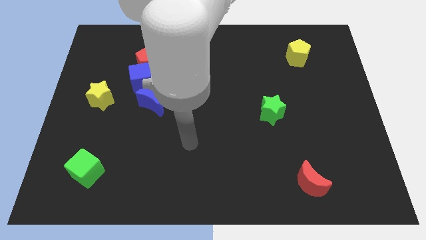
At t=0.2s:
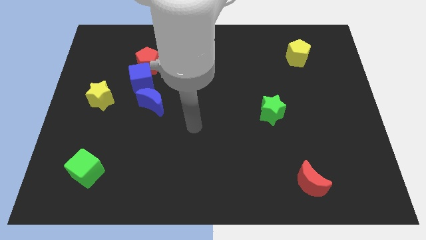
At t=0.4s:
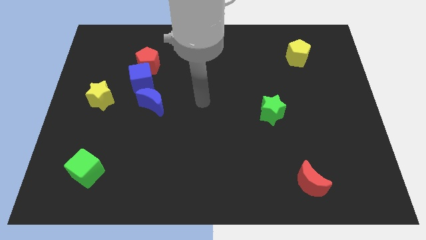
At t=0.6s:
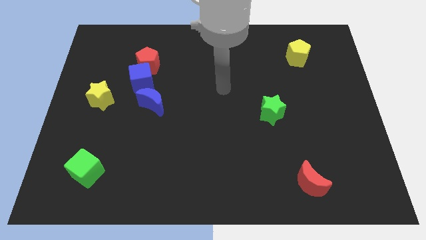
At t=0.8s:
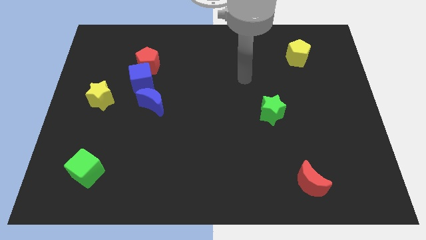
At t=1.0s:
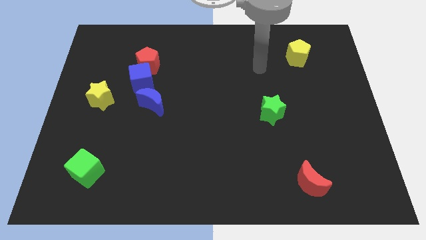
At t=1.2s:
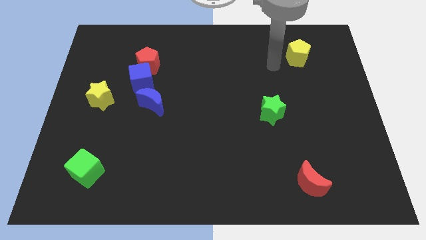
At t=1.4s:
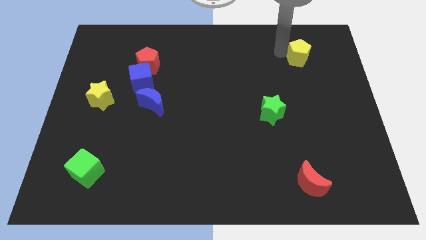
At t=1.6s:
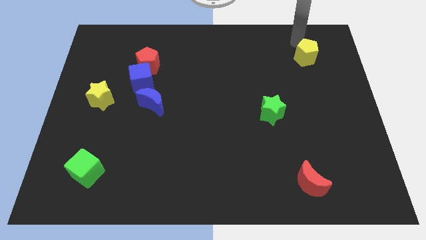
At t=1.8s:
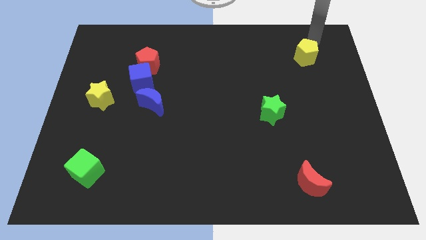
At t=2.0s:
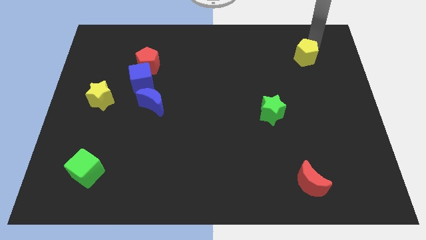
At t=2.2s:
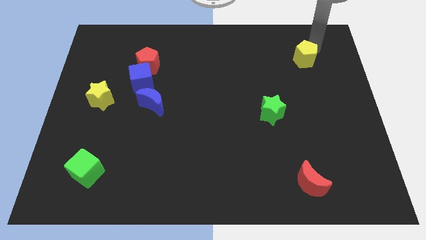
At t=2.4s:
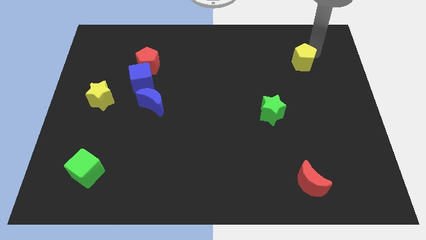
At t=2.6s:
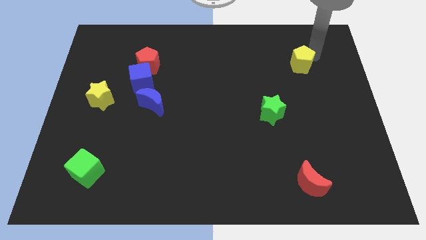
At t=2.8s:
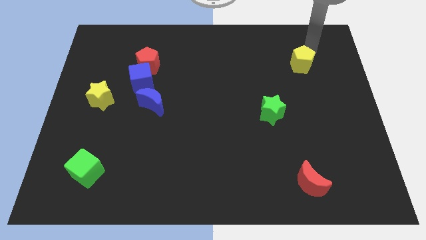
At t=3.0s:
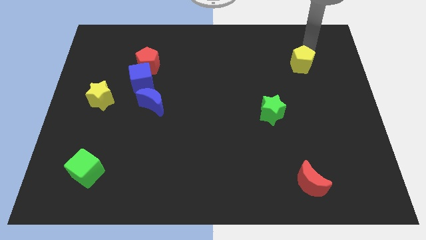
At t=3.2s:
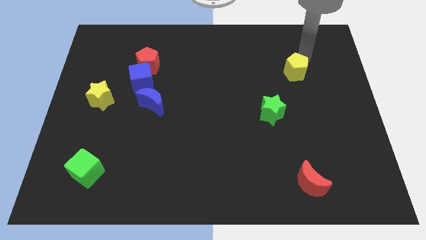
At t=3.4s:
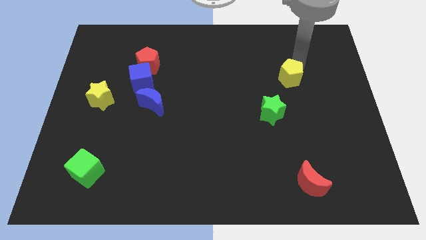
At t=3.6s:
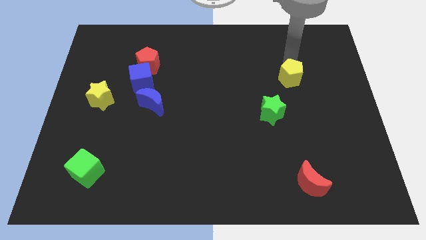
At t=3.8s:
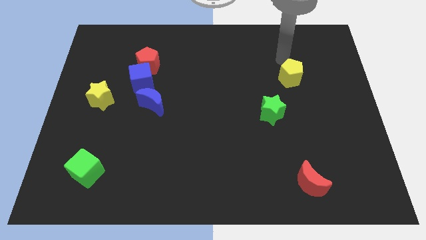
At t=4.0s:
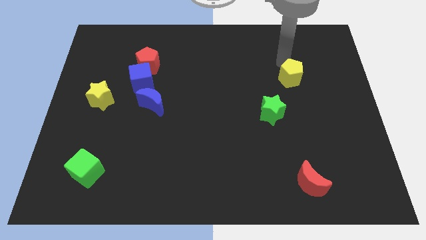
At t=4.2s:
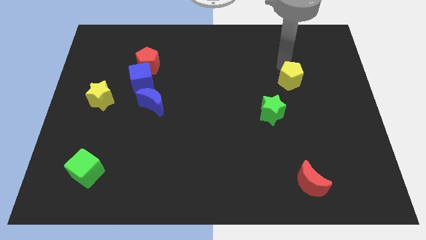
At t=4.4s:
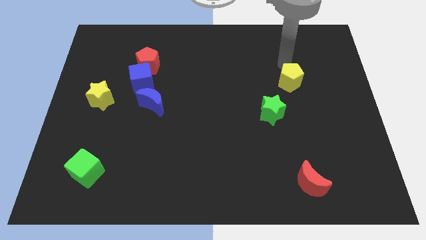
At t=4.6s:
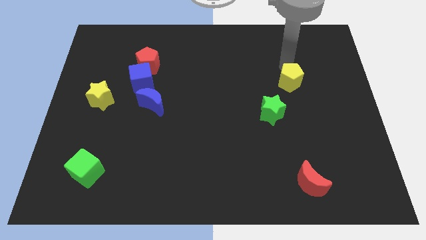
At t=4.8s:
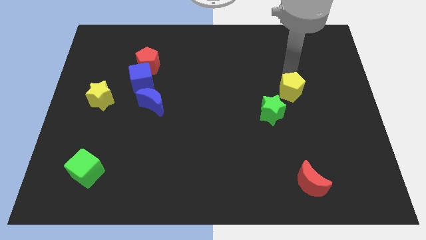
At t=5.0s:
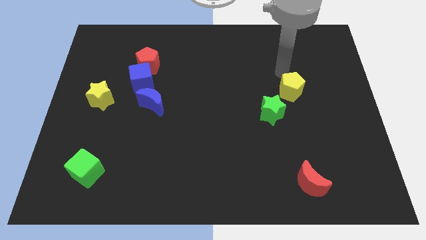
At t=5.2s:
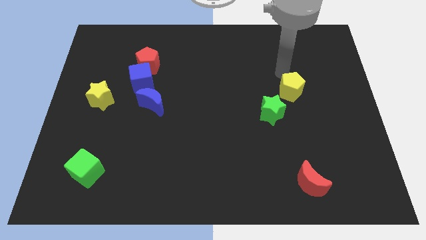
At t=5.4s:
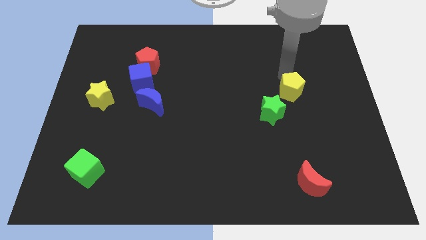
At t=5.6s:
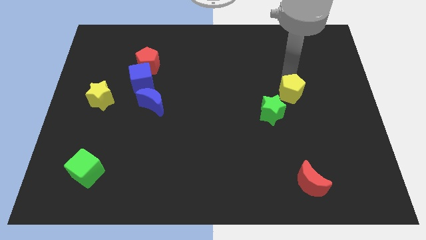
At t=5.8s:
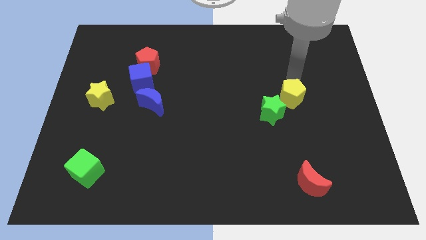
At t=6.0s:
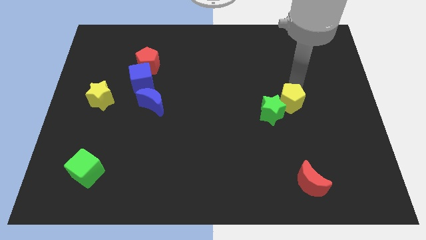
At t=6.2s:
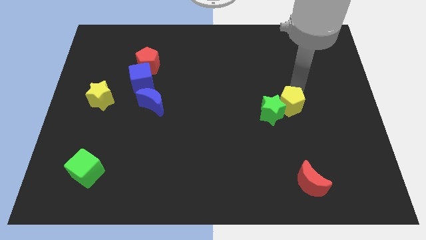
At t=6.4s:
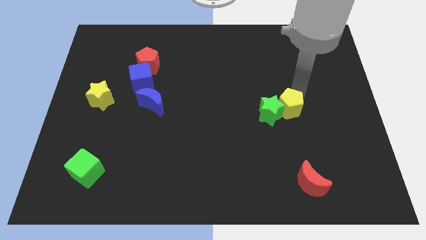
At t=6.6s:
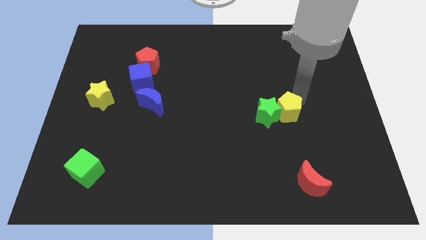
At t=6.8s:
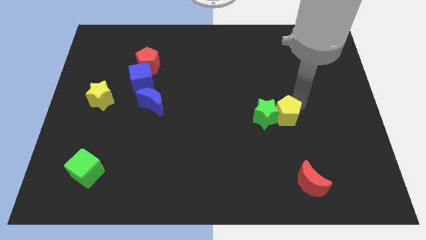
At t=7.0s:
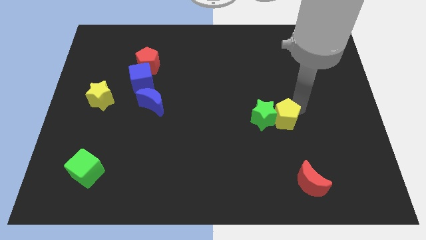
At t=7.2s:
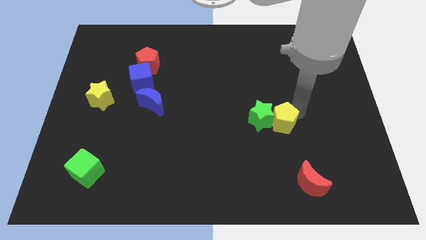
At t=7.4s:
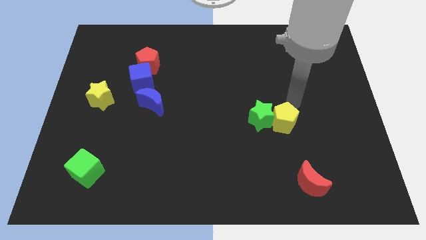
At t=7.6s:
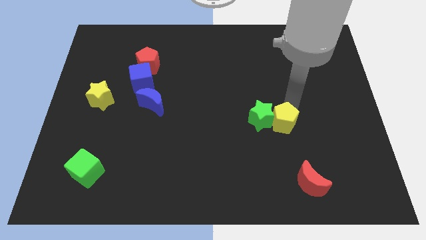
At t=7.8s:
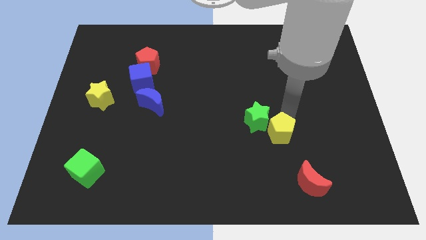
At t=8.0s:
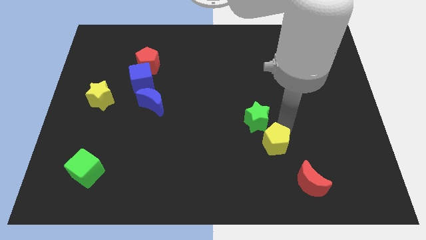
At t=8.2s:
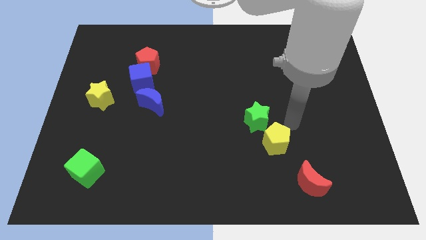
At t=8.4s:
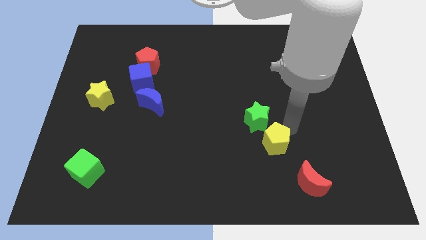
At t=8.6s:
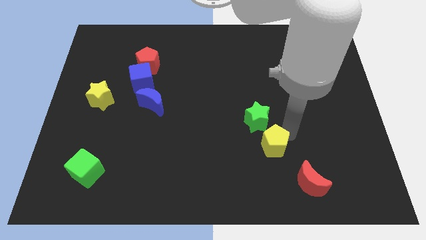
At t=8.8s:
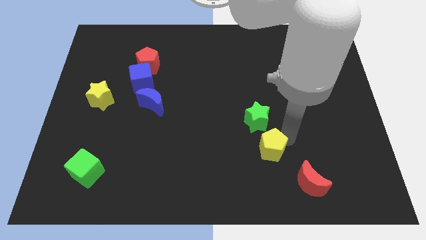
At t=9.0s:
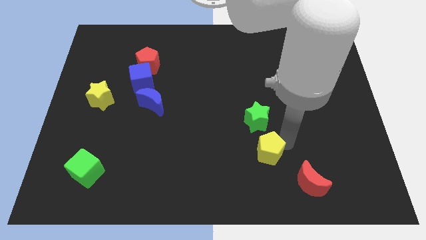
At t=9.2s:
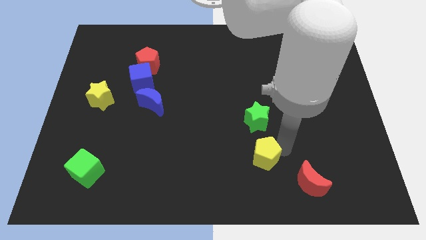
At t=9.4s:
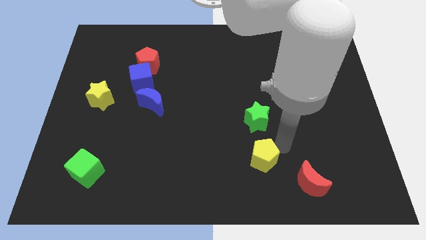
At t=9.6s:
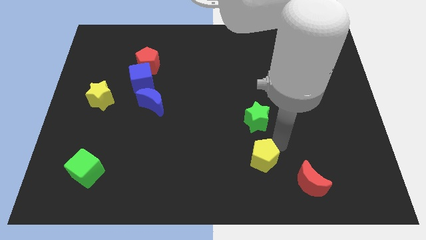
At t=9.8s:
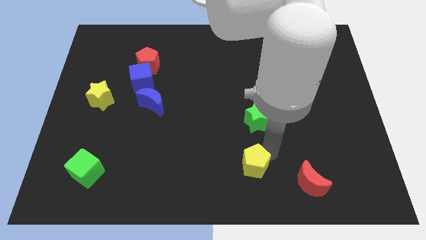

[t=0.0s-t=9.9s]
put the yellow pentagon to the bottom side

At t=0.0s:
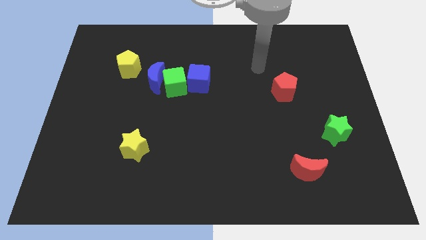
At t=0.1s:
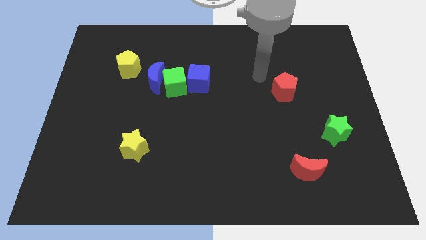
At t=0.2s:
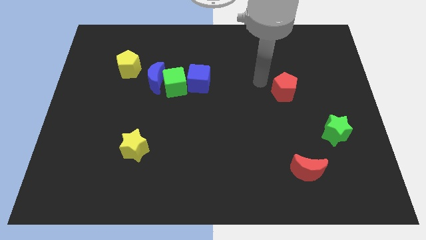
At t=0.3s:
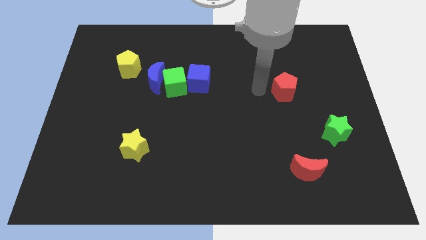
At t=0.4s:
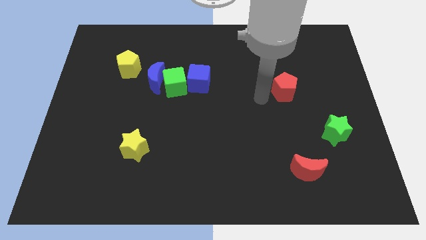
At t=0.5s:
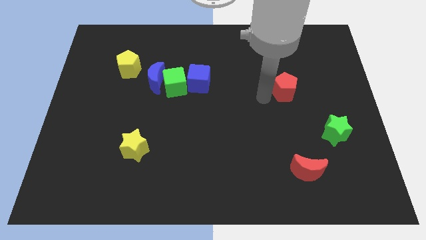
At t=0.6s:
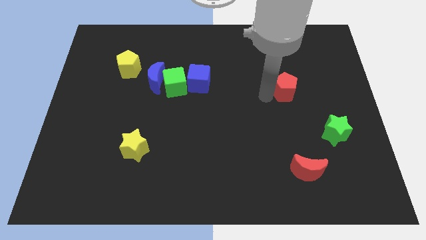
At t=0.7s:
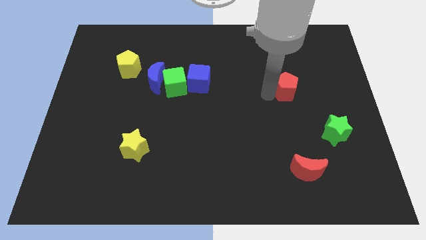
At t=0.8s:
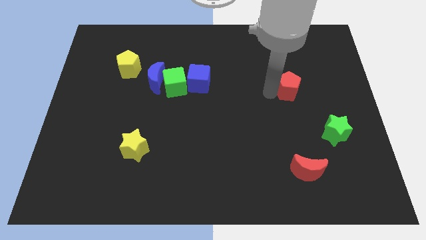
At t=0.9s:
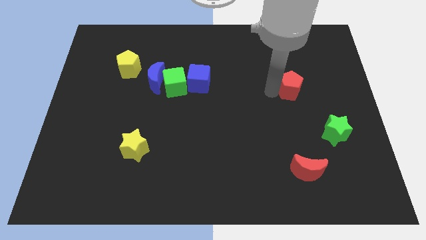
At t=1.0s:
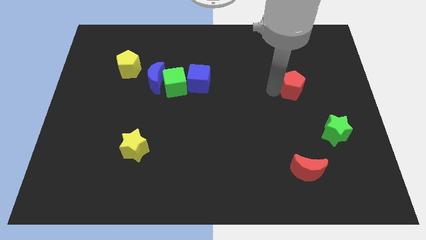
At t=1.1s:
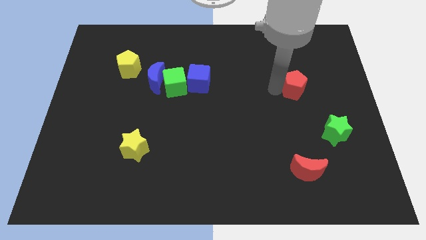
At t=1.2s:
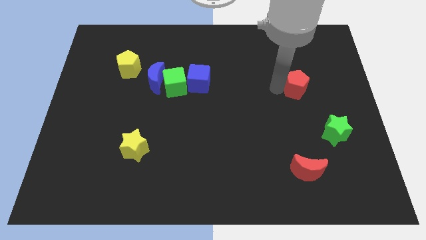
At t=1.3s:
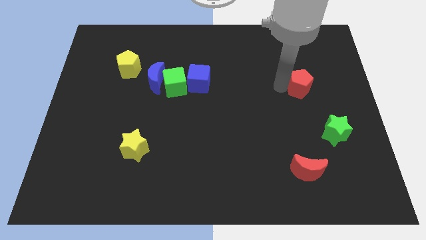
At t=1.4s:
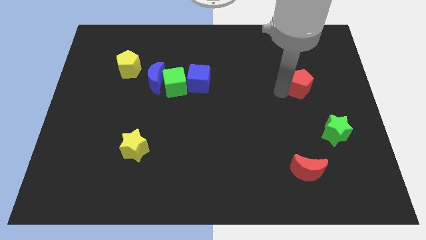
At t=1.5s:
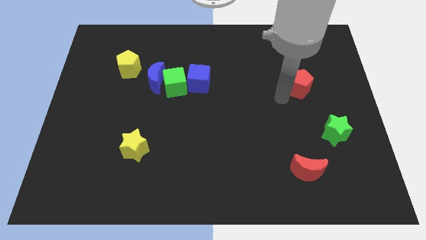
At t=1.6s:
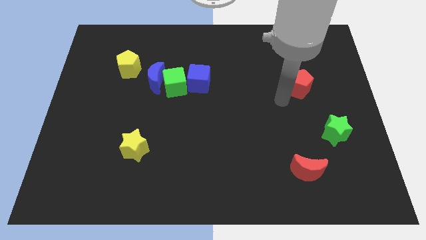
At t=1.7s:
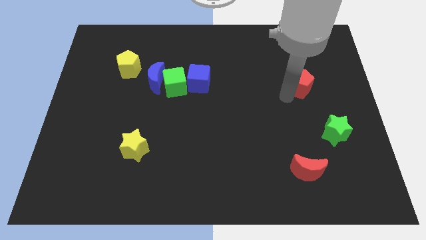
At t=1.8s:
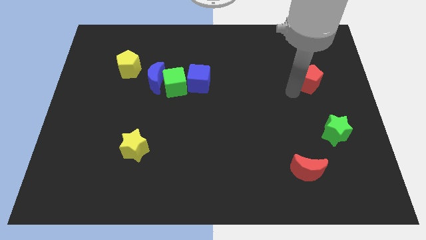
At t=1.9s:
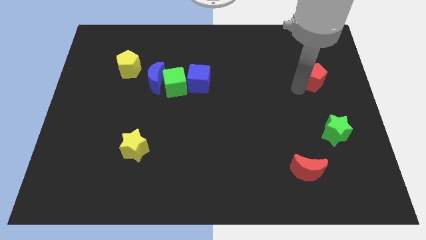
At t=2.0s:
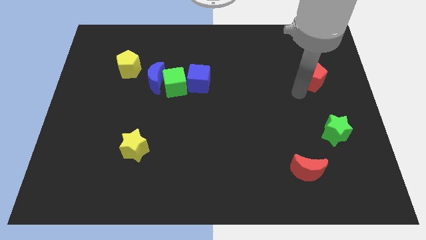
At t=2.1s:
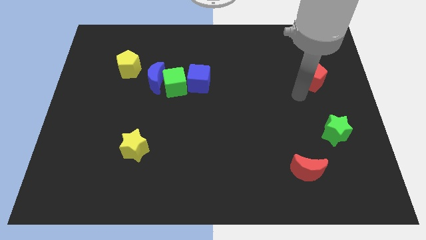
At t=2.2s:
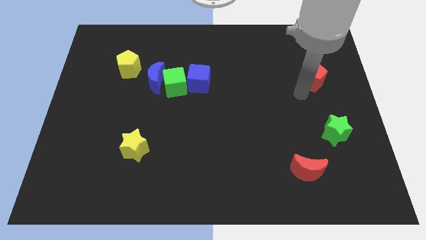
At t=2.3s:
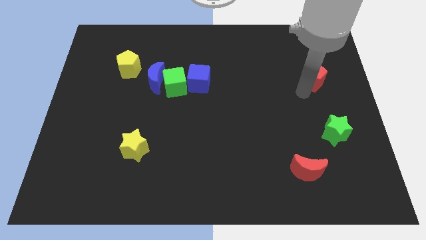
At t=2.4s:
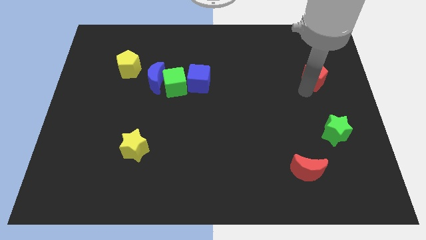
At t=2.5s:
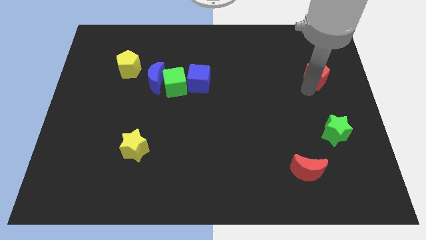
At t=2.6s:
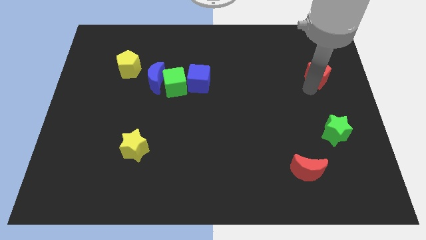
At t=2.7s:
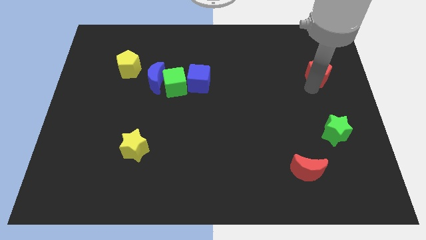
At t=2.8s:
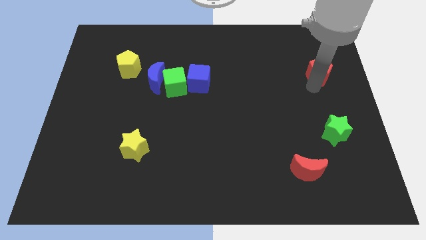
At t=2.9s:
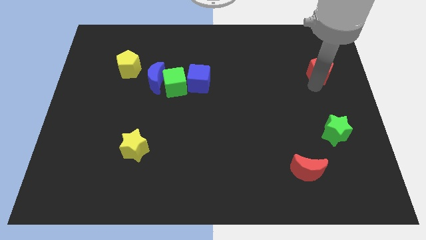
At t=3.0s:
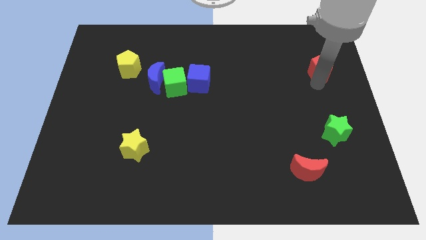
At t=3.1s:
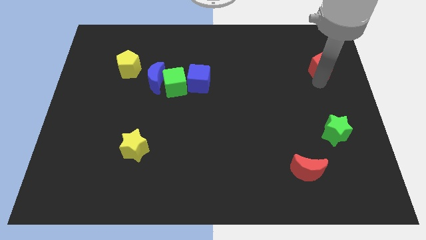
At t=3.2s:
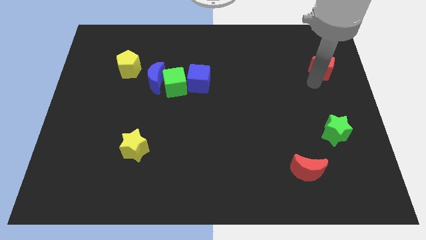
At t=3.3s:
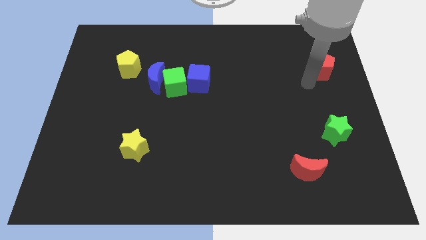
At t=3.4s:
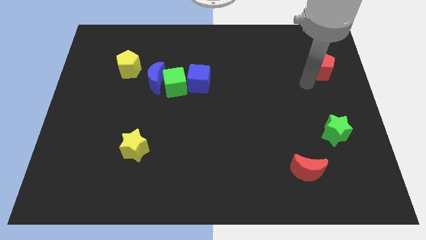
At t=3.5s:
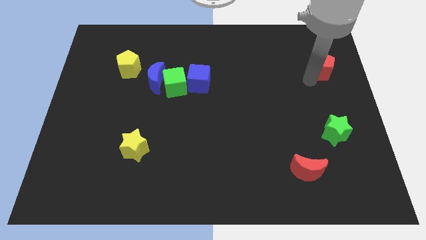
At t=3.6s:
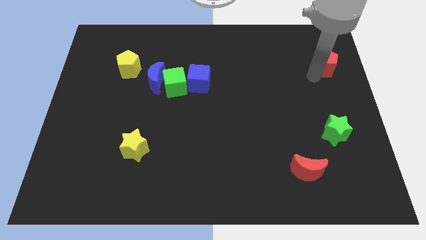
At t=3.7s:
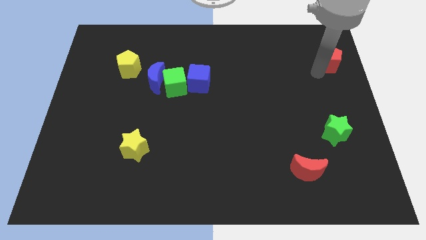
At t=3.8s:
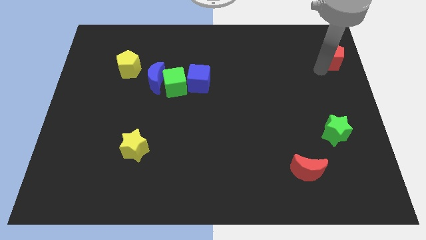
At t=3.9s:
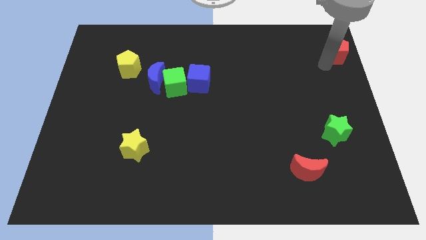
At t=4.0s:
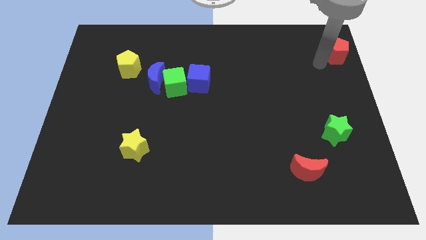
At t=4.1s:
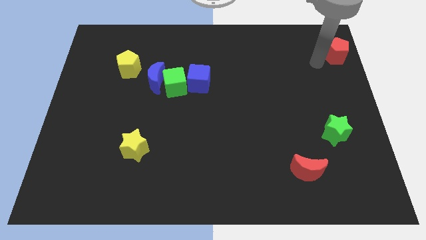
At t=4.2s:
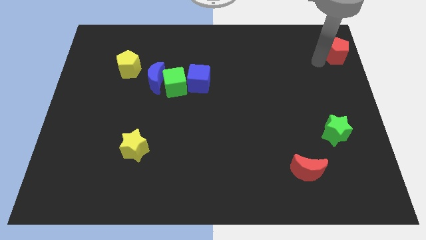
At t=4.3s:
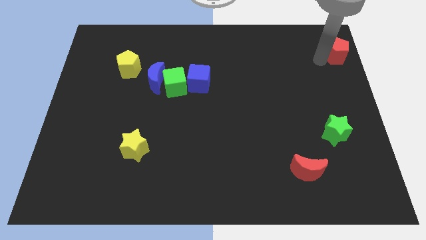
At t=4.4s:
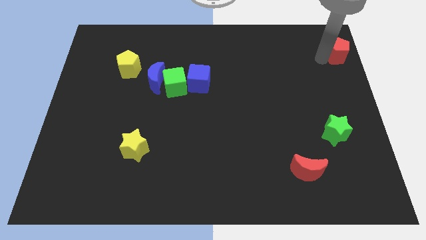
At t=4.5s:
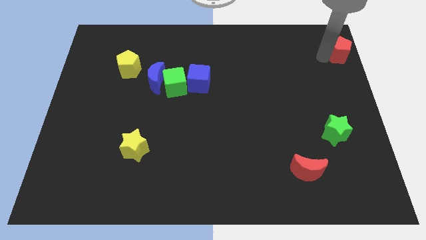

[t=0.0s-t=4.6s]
move the red pentagon to the upper right corner
